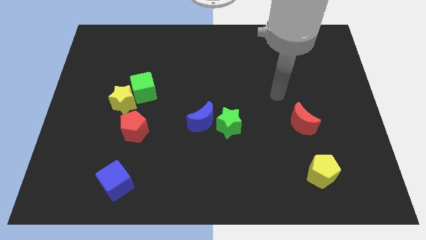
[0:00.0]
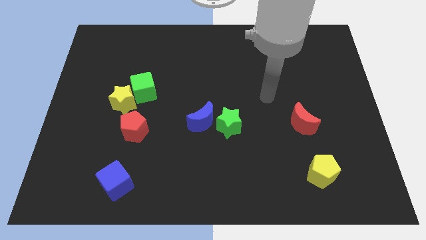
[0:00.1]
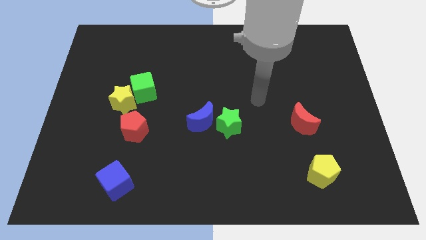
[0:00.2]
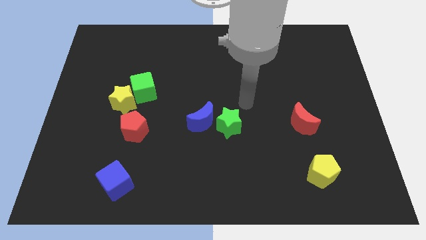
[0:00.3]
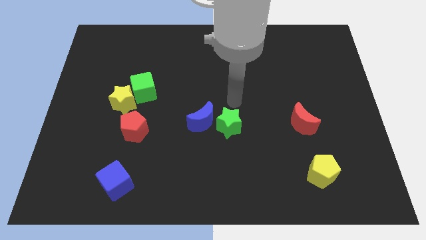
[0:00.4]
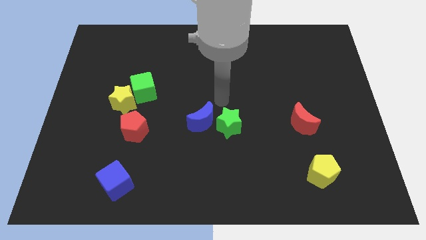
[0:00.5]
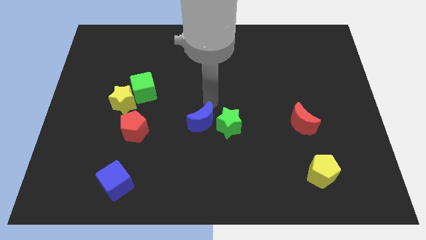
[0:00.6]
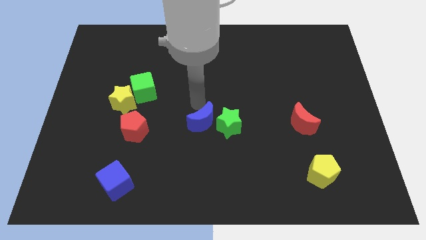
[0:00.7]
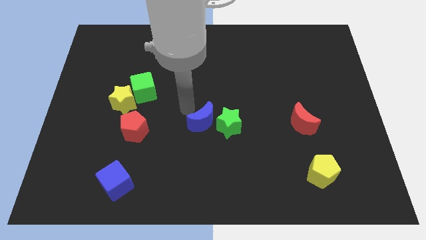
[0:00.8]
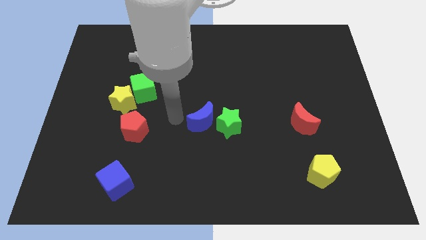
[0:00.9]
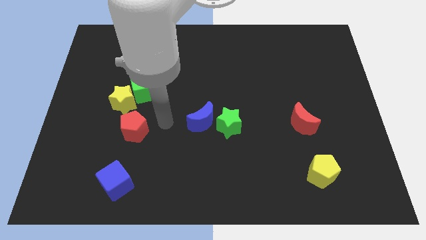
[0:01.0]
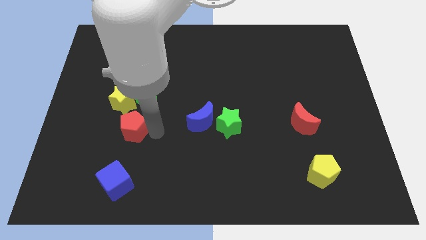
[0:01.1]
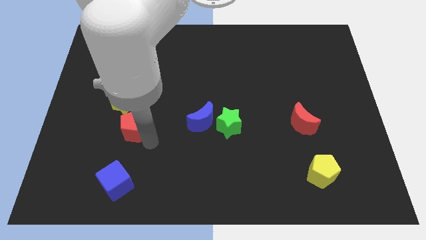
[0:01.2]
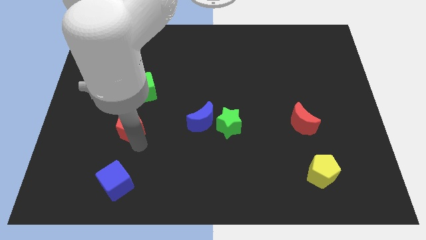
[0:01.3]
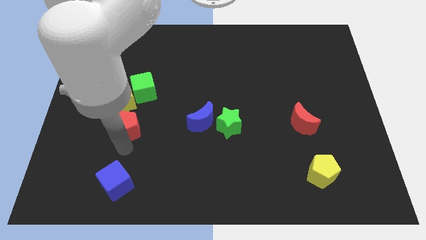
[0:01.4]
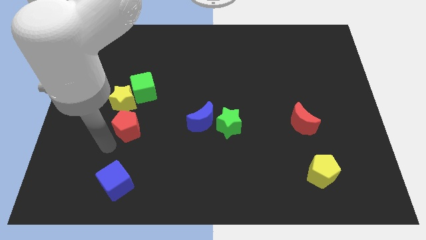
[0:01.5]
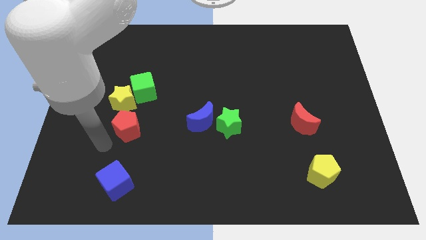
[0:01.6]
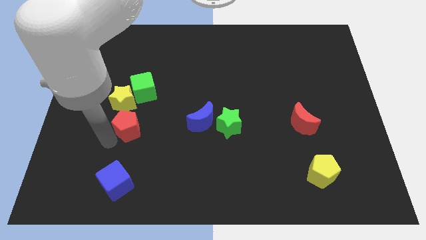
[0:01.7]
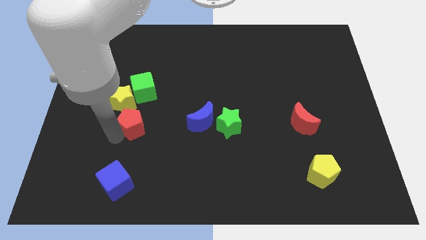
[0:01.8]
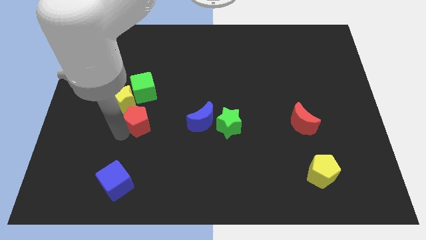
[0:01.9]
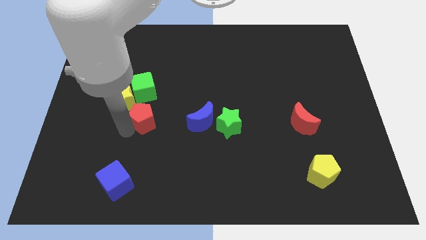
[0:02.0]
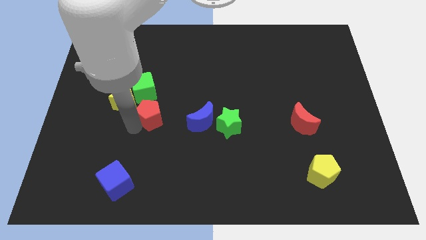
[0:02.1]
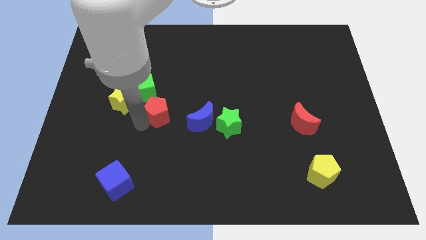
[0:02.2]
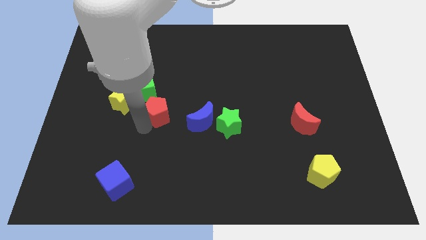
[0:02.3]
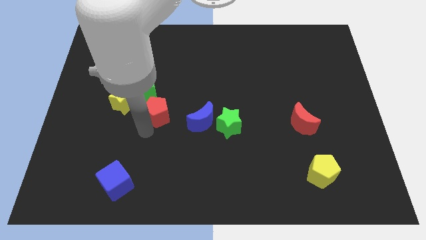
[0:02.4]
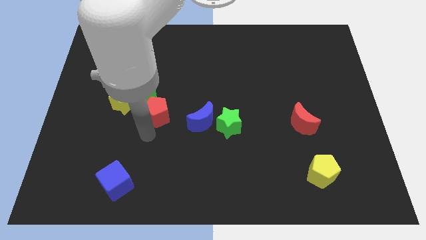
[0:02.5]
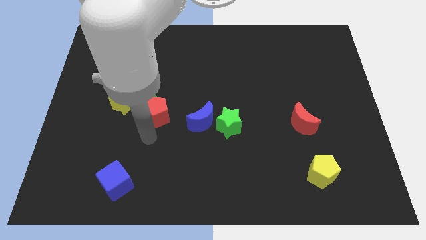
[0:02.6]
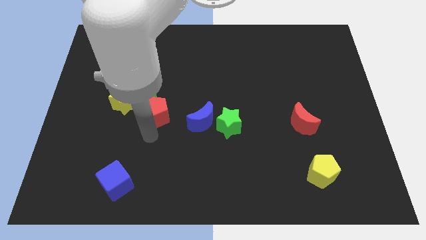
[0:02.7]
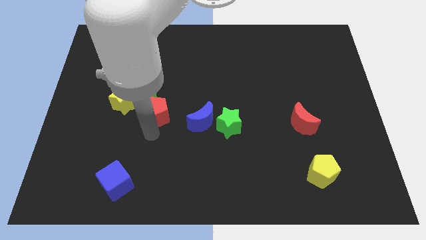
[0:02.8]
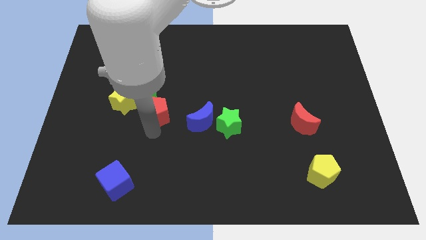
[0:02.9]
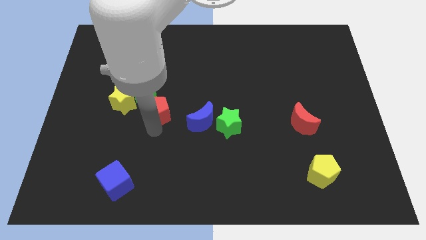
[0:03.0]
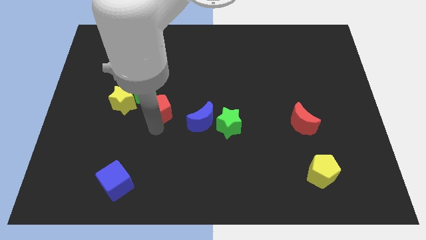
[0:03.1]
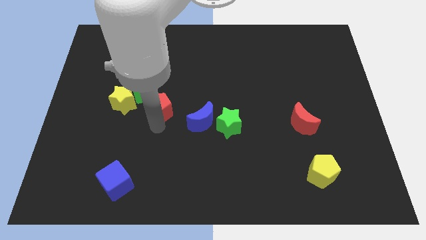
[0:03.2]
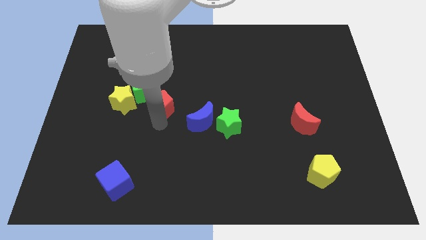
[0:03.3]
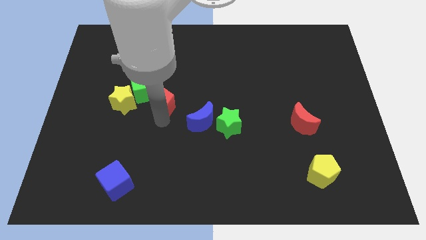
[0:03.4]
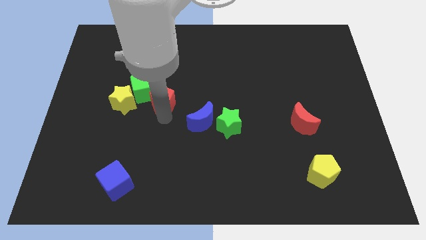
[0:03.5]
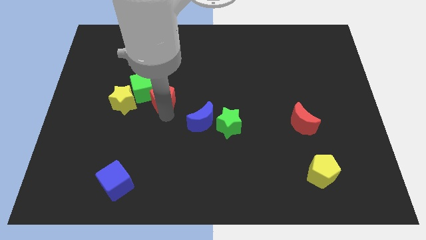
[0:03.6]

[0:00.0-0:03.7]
push the red pentagon a little upwards

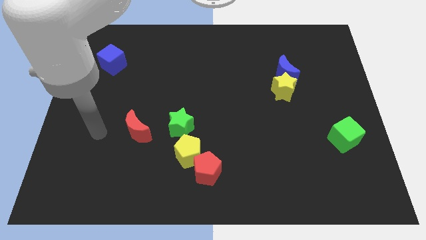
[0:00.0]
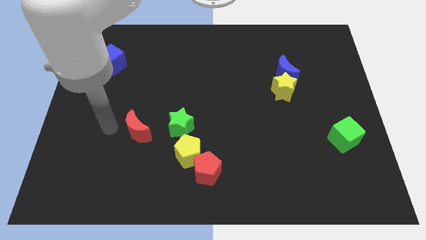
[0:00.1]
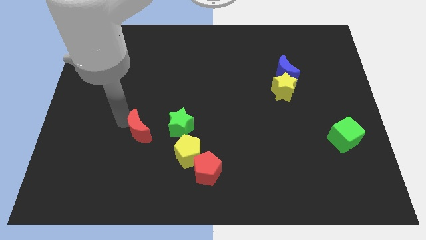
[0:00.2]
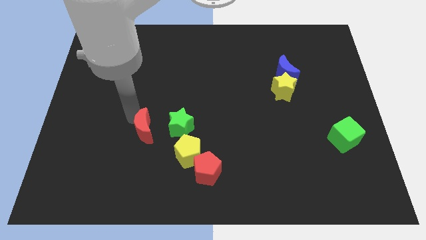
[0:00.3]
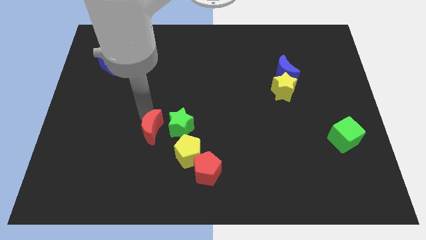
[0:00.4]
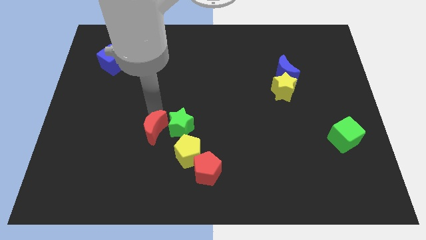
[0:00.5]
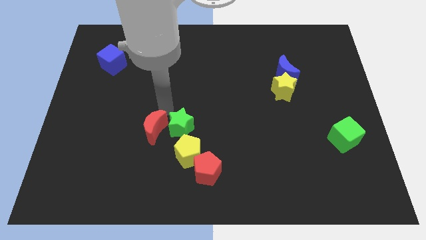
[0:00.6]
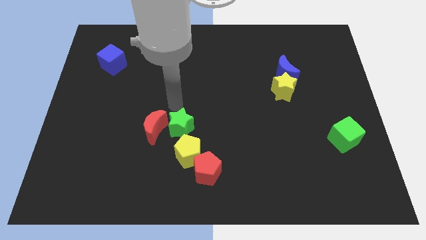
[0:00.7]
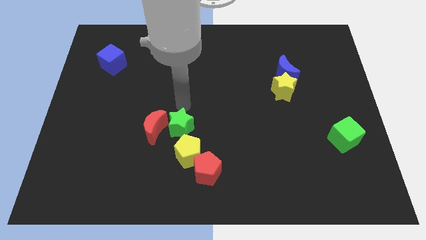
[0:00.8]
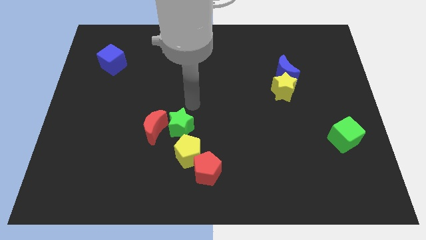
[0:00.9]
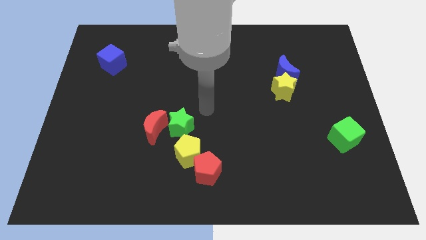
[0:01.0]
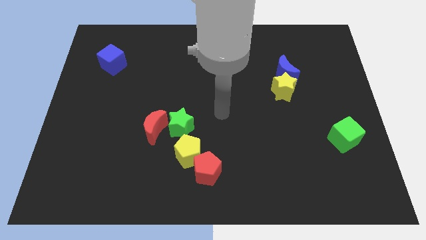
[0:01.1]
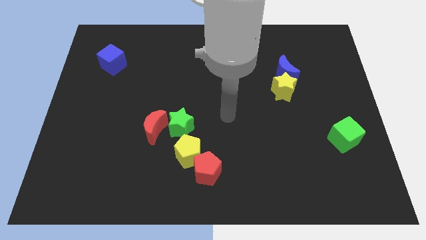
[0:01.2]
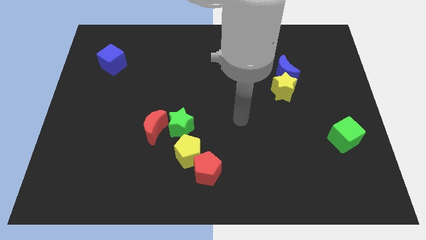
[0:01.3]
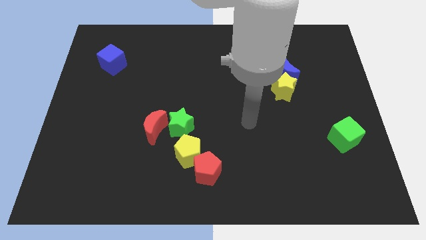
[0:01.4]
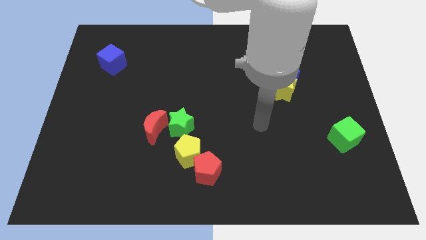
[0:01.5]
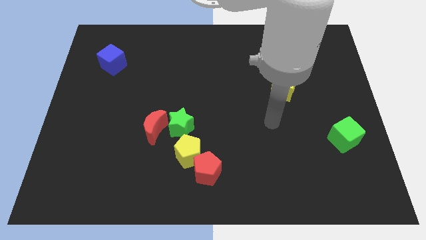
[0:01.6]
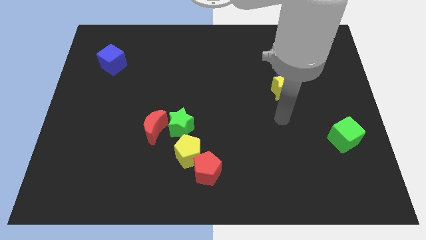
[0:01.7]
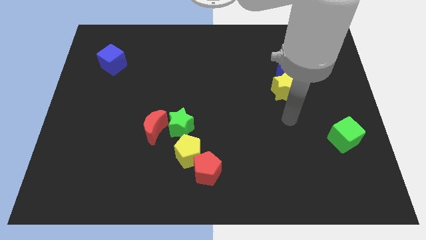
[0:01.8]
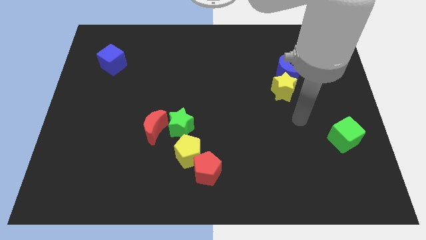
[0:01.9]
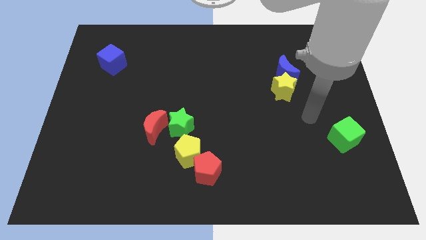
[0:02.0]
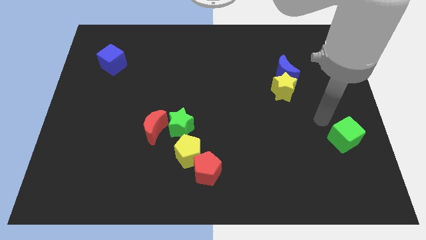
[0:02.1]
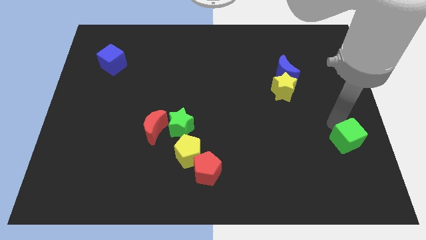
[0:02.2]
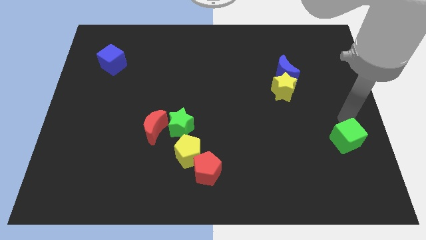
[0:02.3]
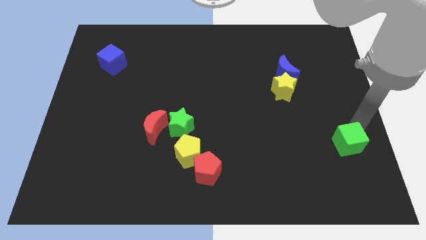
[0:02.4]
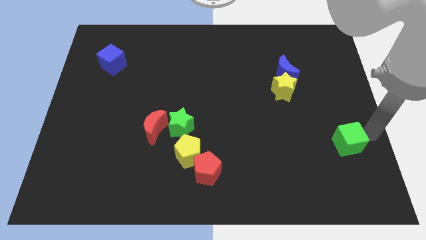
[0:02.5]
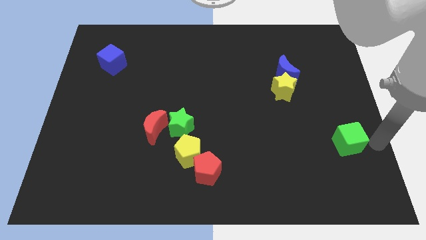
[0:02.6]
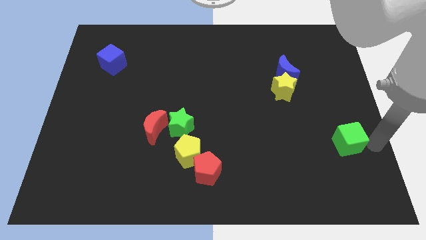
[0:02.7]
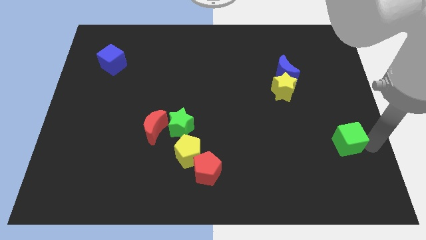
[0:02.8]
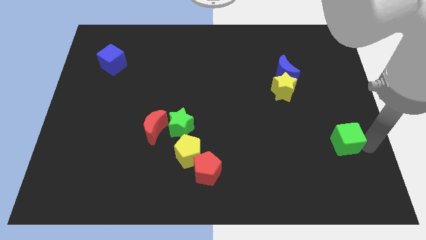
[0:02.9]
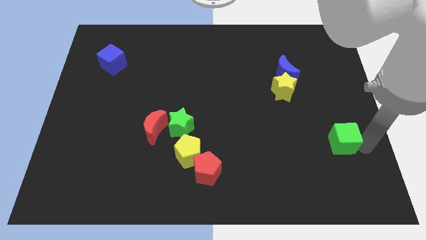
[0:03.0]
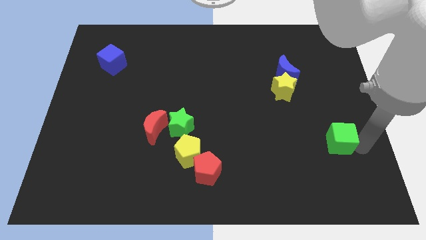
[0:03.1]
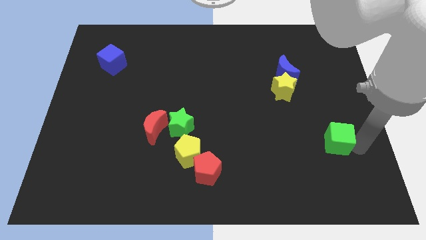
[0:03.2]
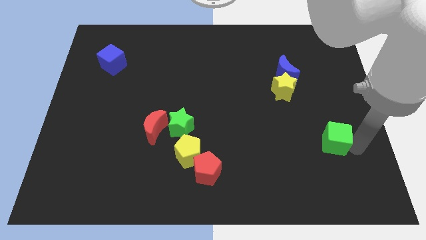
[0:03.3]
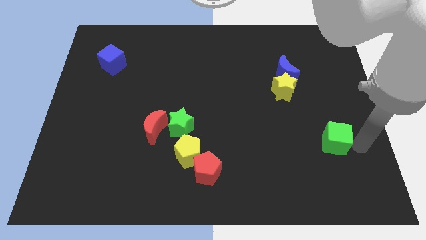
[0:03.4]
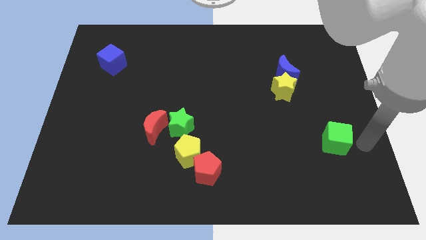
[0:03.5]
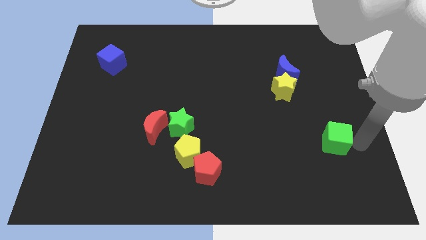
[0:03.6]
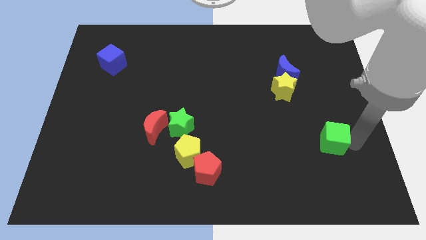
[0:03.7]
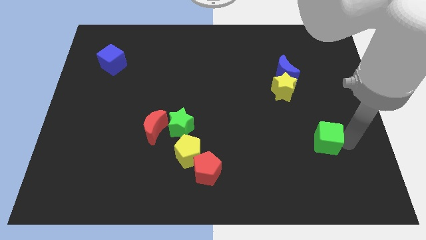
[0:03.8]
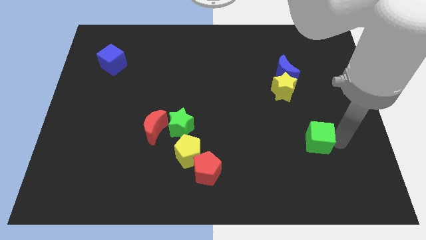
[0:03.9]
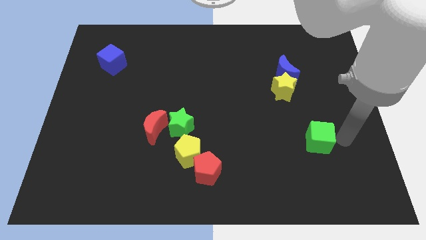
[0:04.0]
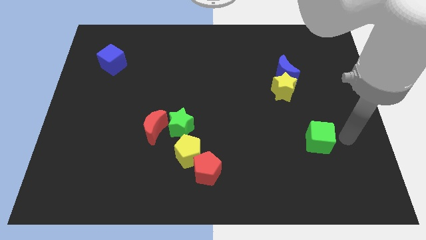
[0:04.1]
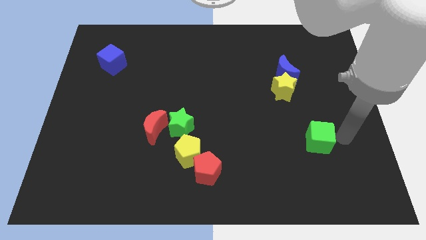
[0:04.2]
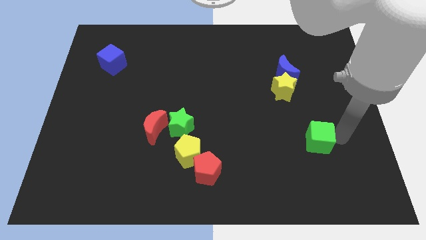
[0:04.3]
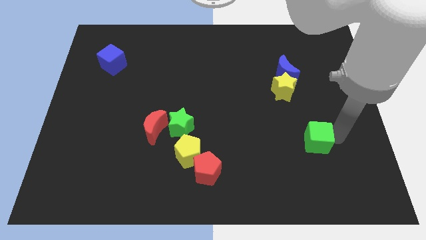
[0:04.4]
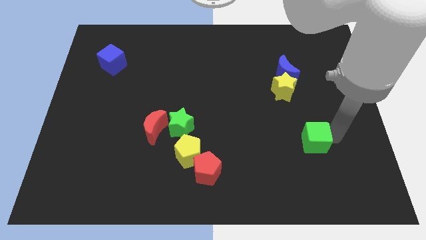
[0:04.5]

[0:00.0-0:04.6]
push the green cube a little to the left
